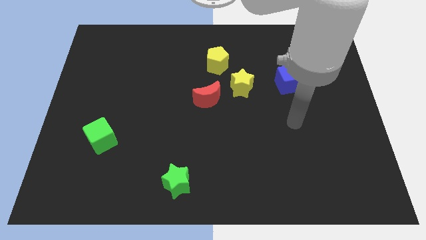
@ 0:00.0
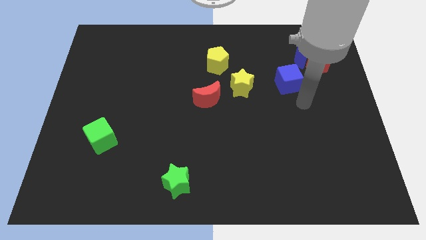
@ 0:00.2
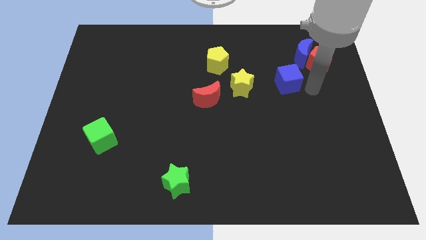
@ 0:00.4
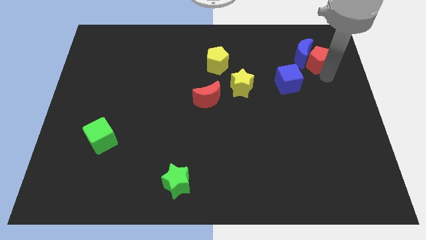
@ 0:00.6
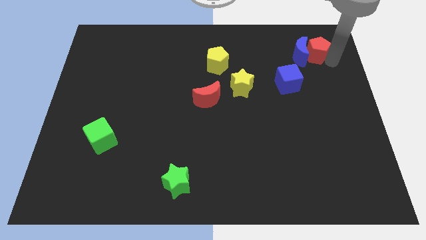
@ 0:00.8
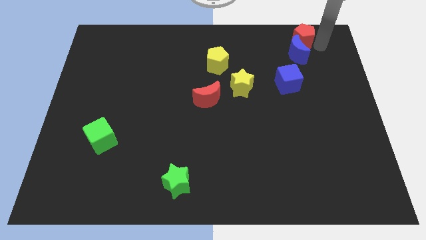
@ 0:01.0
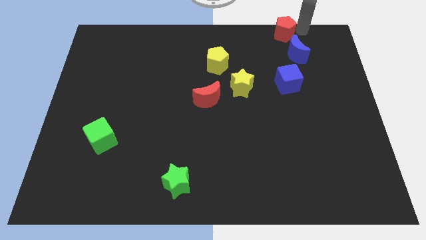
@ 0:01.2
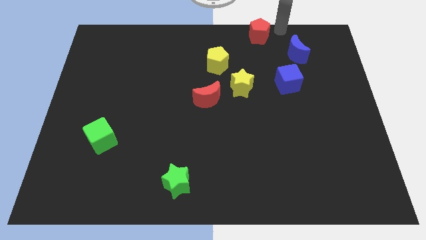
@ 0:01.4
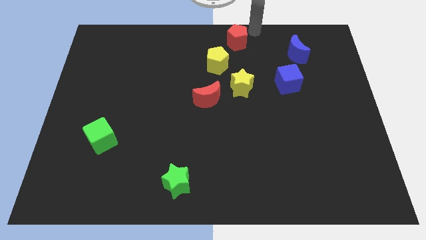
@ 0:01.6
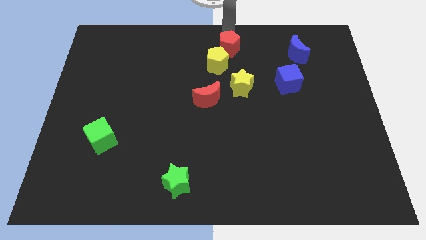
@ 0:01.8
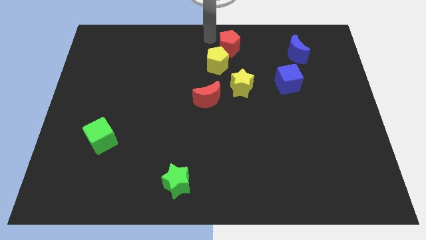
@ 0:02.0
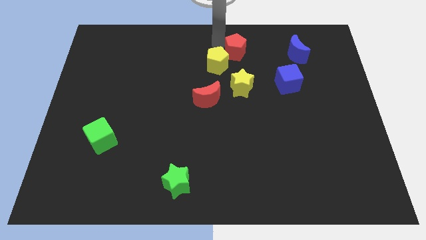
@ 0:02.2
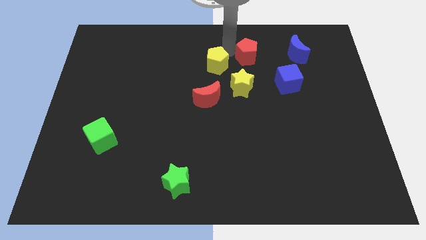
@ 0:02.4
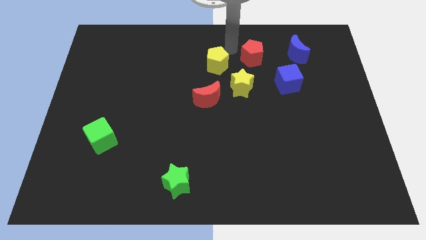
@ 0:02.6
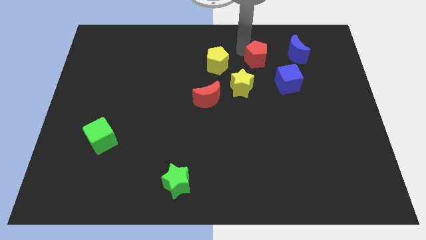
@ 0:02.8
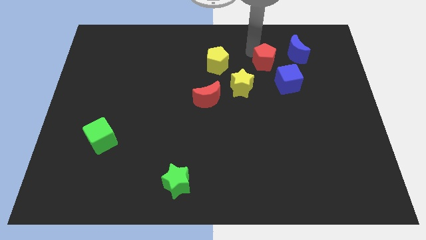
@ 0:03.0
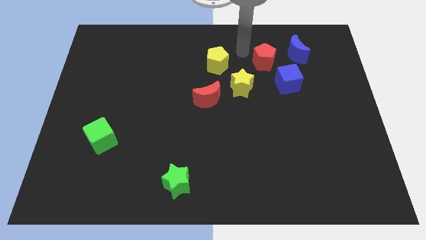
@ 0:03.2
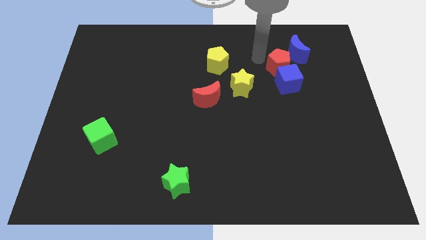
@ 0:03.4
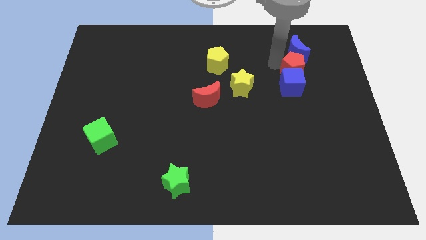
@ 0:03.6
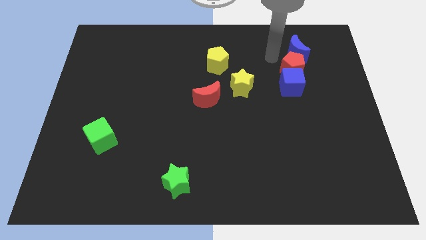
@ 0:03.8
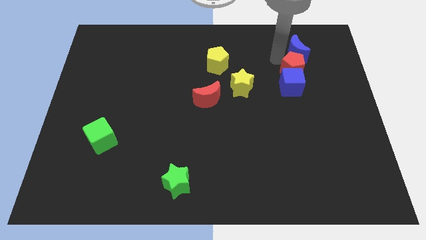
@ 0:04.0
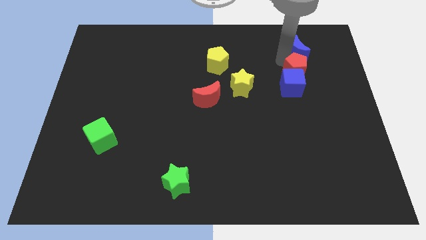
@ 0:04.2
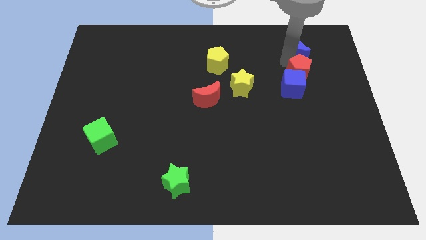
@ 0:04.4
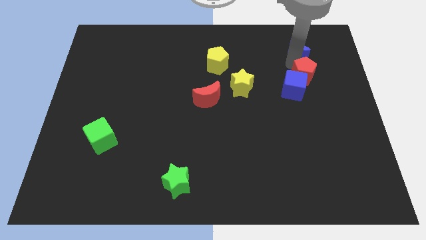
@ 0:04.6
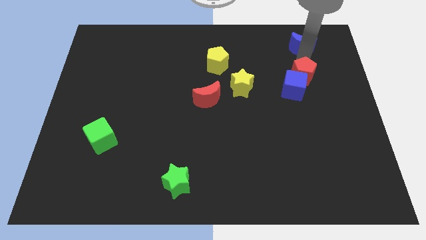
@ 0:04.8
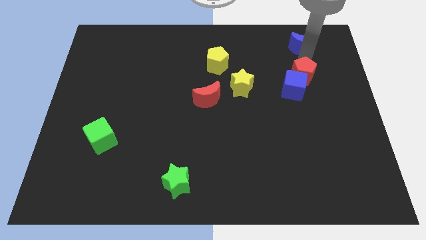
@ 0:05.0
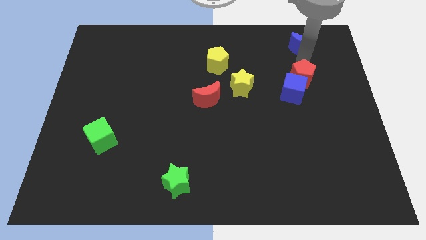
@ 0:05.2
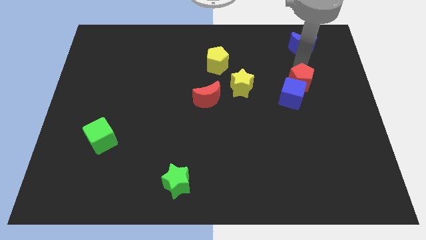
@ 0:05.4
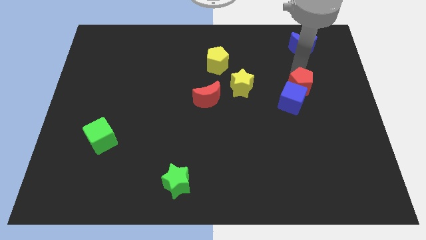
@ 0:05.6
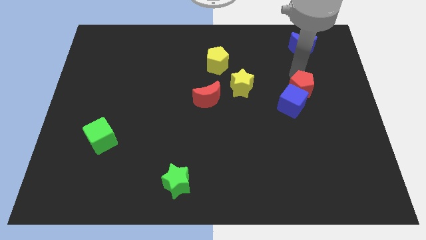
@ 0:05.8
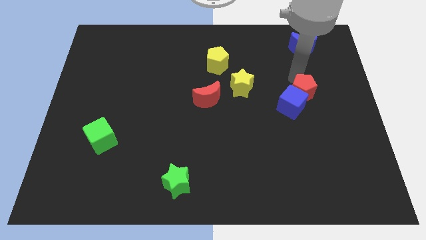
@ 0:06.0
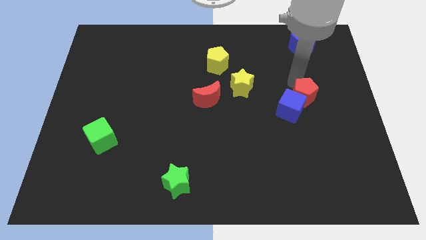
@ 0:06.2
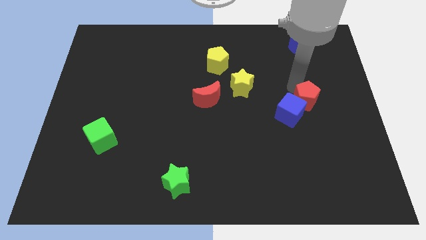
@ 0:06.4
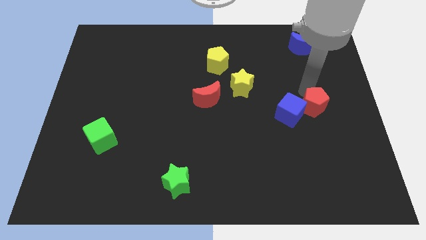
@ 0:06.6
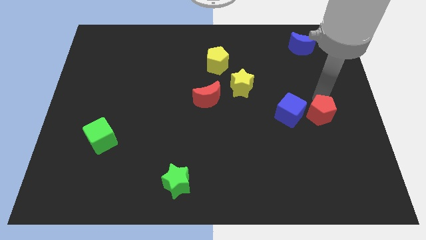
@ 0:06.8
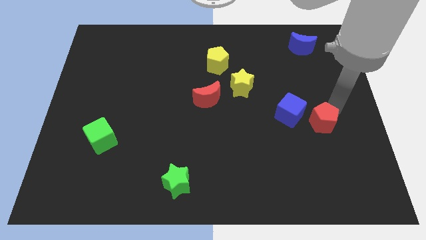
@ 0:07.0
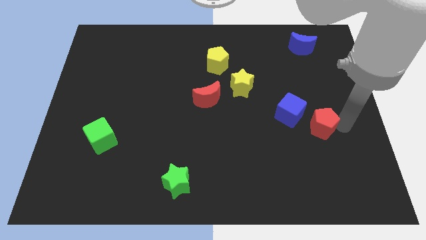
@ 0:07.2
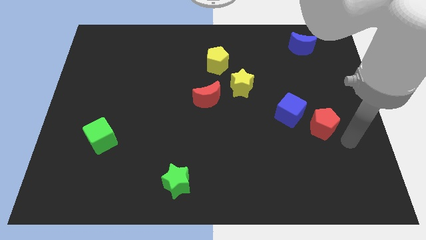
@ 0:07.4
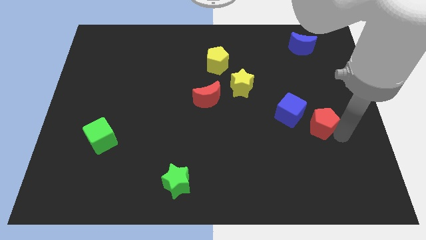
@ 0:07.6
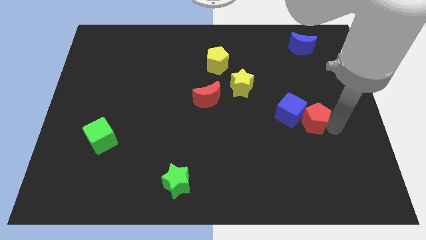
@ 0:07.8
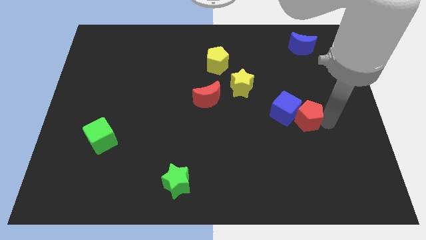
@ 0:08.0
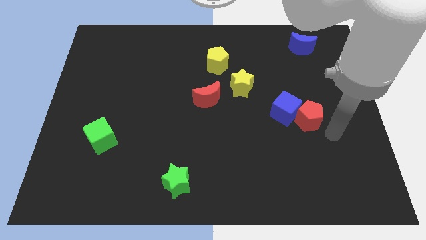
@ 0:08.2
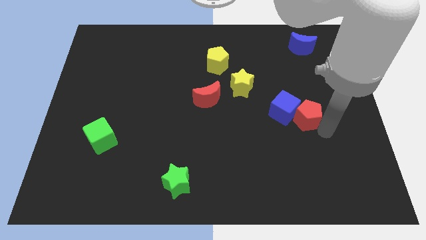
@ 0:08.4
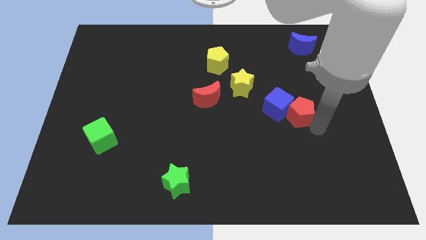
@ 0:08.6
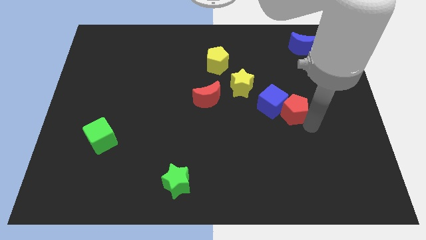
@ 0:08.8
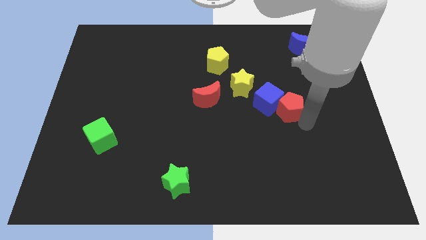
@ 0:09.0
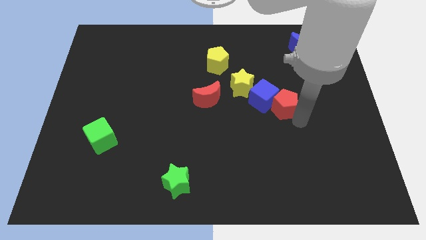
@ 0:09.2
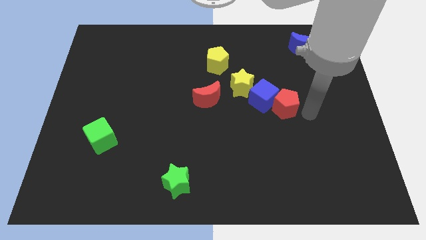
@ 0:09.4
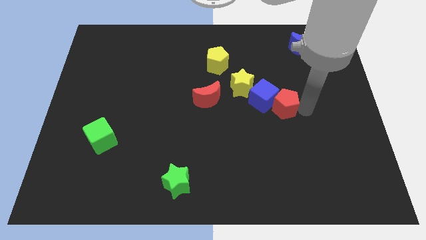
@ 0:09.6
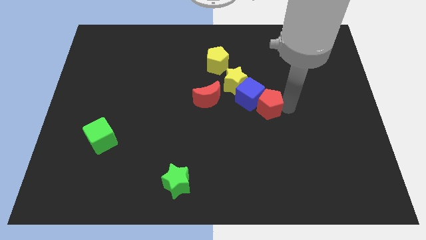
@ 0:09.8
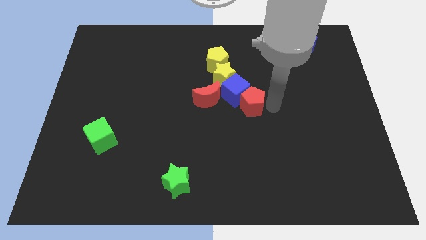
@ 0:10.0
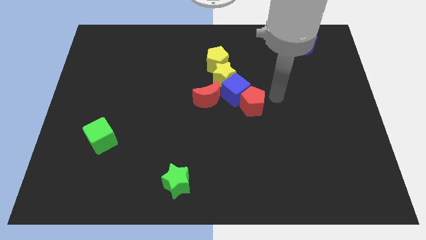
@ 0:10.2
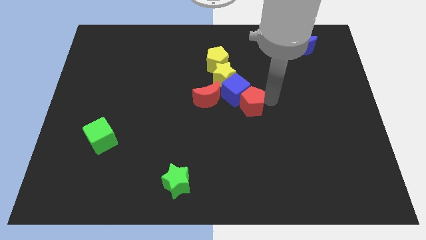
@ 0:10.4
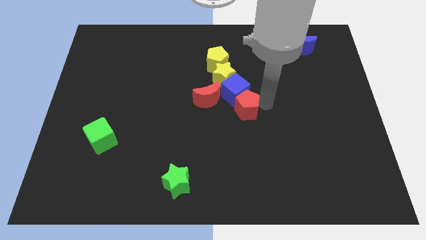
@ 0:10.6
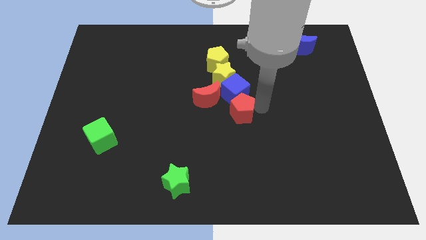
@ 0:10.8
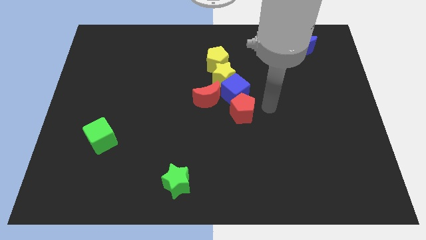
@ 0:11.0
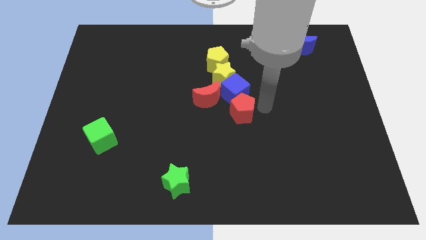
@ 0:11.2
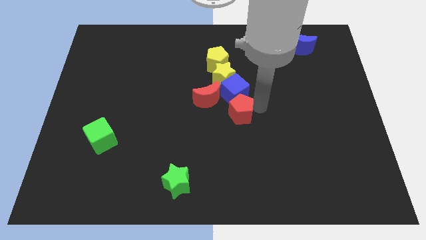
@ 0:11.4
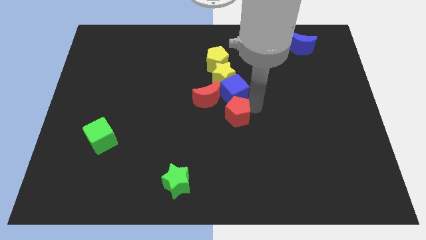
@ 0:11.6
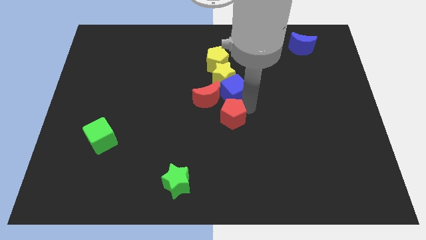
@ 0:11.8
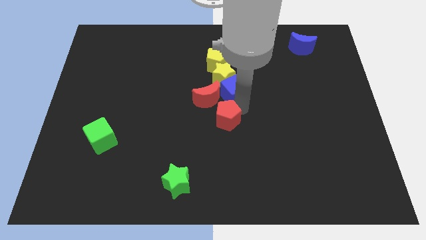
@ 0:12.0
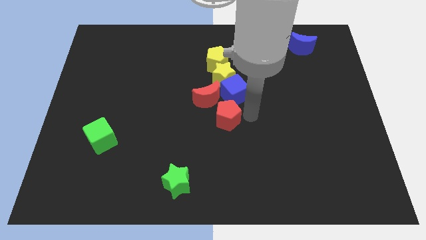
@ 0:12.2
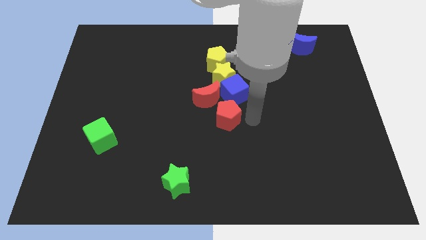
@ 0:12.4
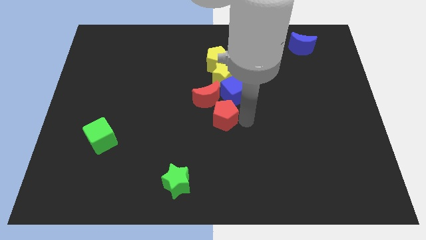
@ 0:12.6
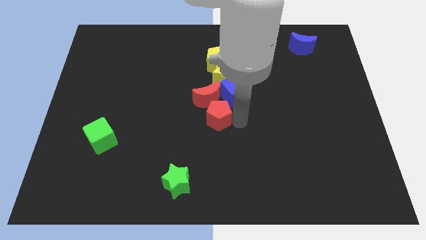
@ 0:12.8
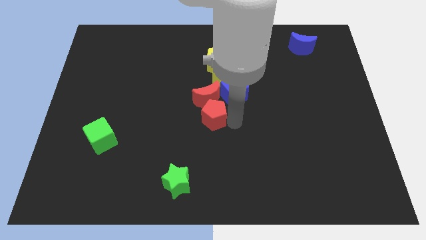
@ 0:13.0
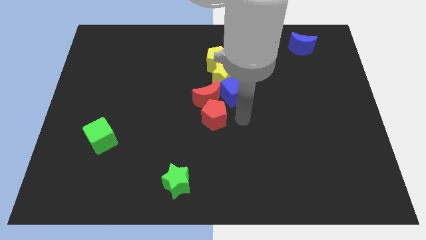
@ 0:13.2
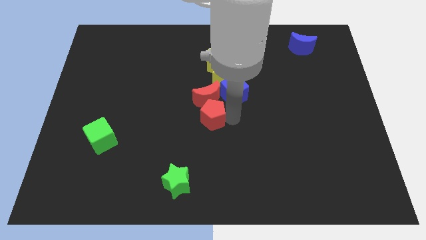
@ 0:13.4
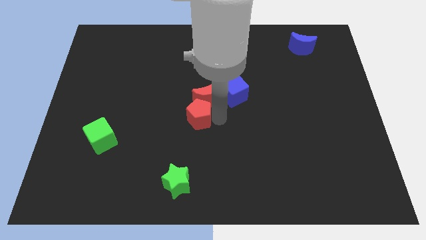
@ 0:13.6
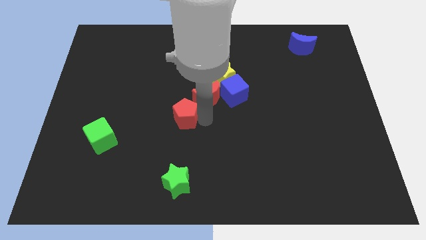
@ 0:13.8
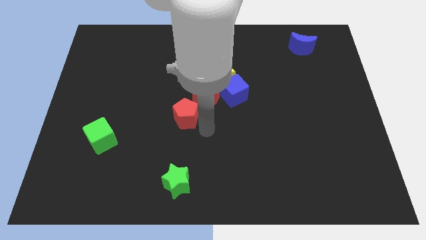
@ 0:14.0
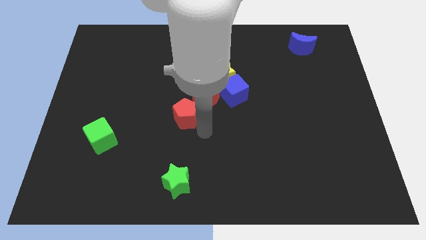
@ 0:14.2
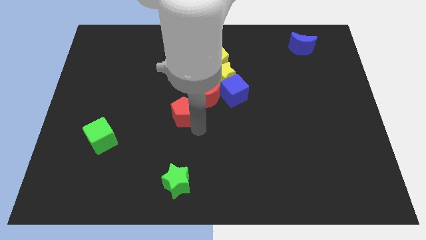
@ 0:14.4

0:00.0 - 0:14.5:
move the red pentagon left of the red moon

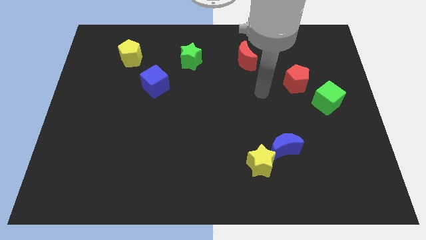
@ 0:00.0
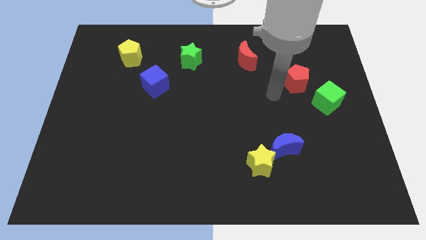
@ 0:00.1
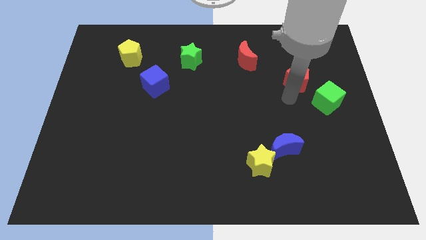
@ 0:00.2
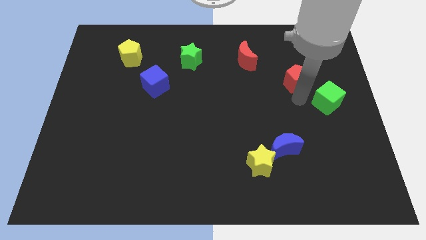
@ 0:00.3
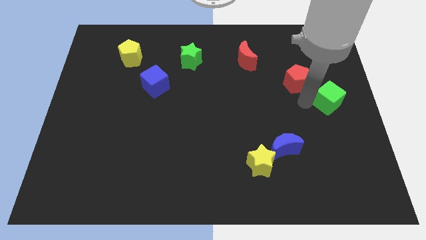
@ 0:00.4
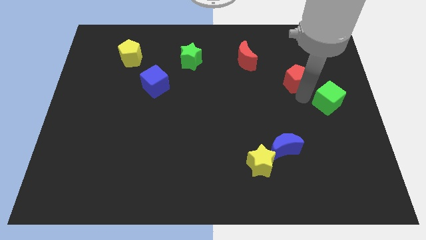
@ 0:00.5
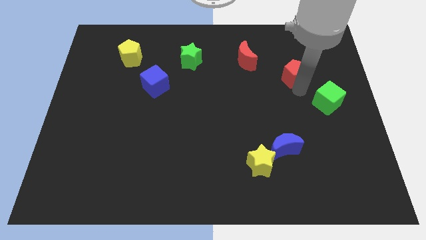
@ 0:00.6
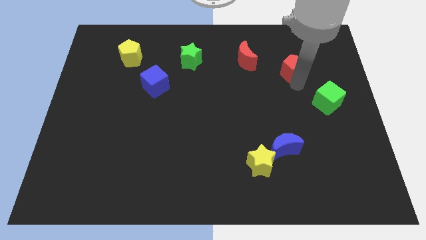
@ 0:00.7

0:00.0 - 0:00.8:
push the red pentagon to the right of the red moon
